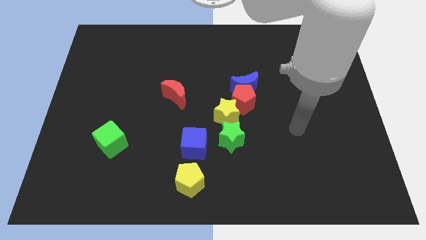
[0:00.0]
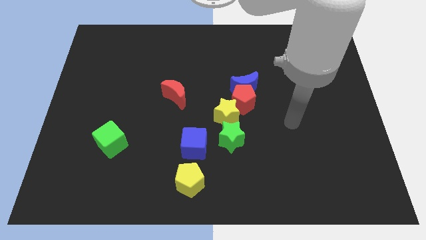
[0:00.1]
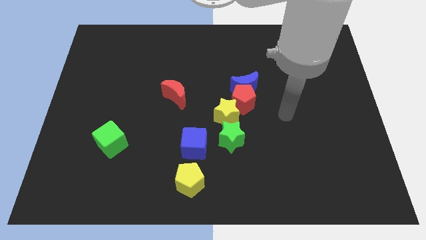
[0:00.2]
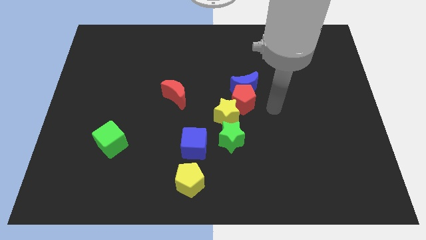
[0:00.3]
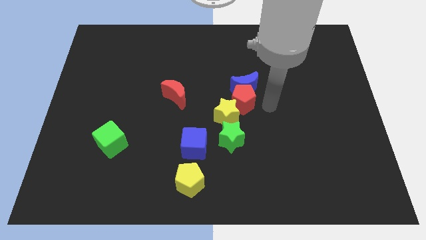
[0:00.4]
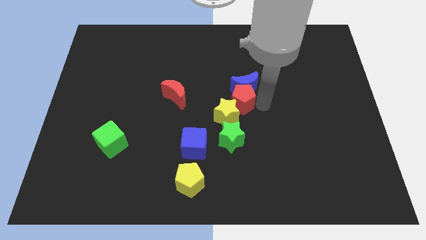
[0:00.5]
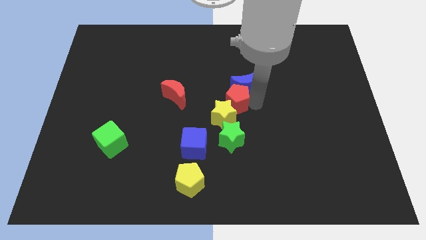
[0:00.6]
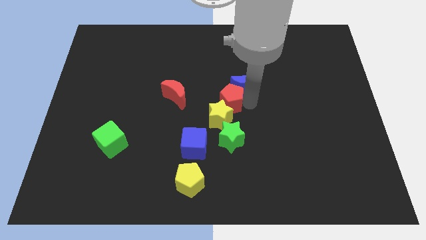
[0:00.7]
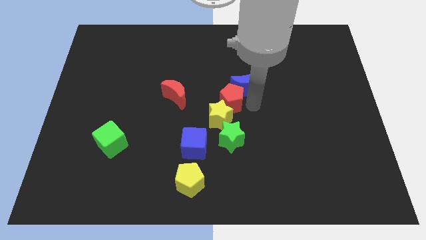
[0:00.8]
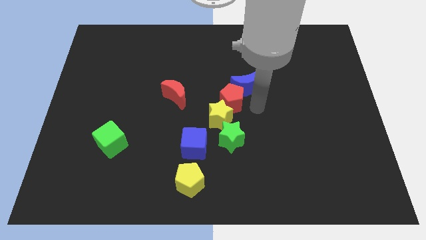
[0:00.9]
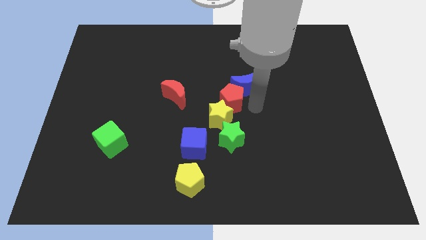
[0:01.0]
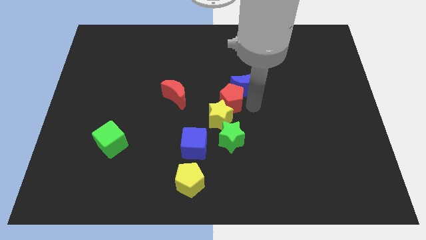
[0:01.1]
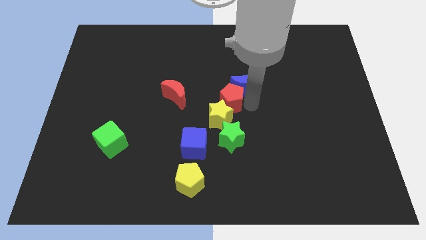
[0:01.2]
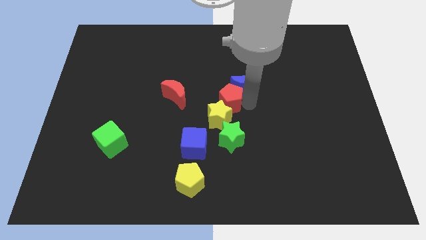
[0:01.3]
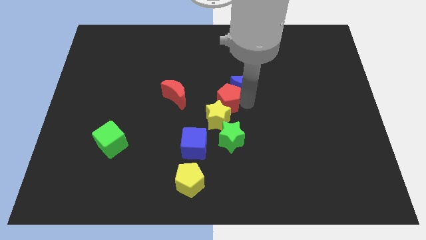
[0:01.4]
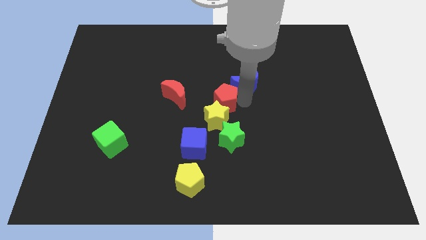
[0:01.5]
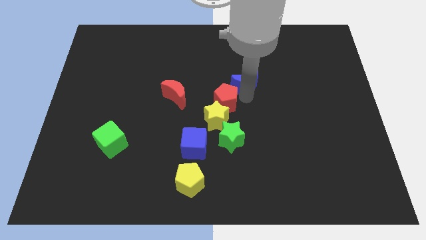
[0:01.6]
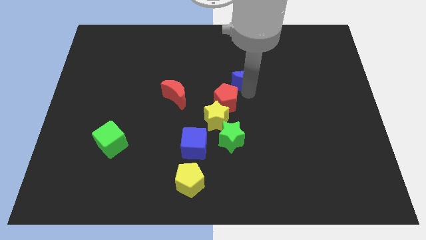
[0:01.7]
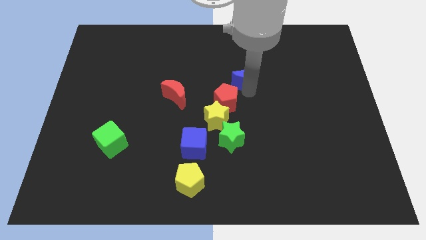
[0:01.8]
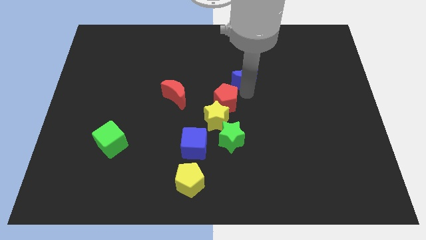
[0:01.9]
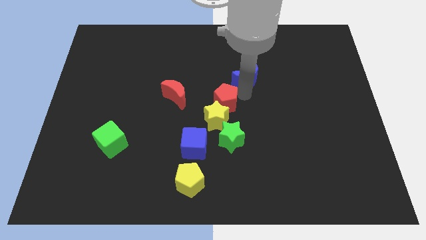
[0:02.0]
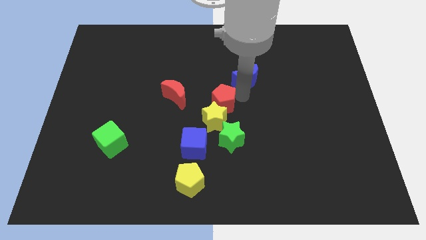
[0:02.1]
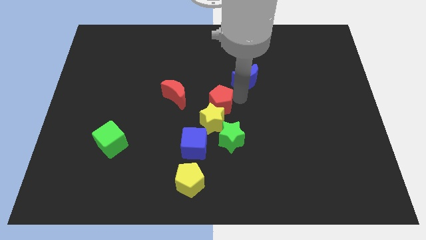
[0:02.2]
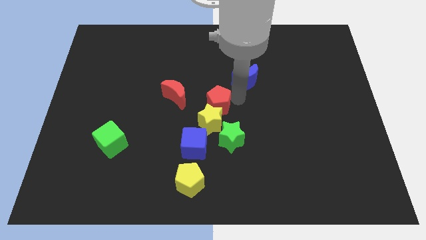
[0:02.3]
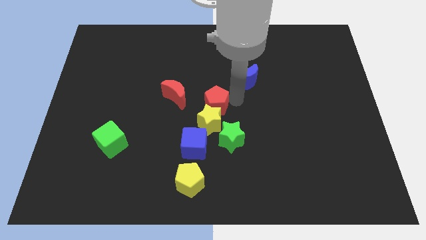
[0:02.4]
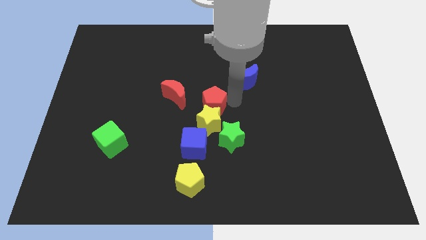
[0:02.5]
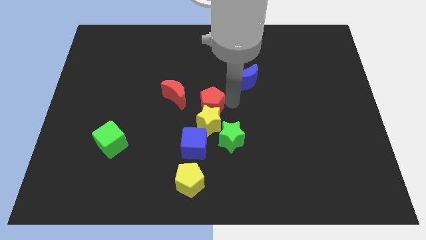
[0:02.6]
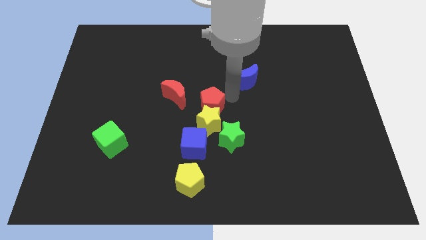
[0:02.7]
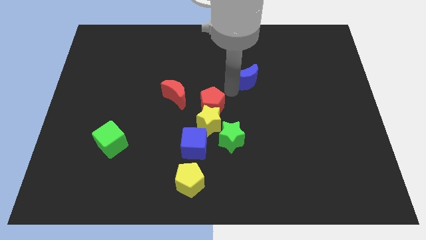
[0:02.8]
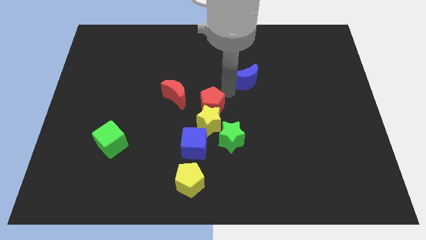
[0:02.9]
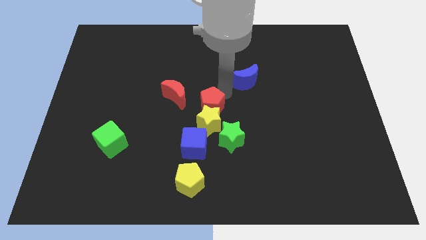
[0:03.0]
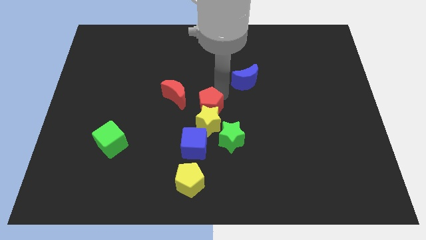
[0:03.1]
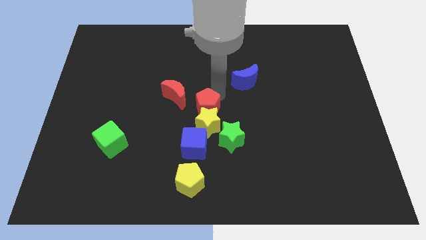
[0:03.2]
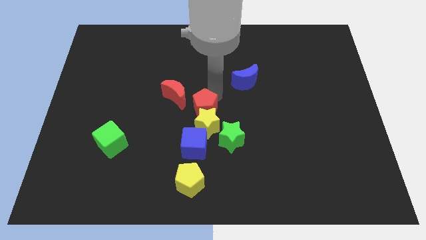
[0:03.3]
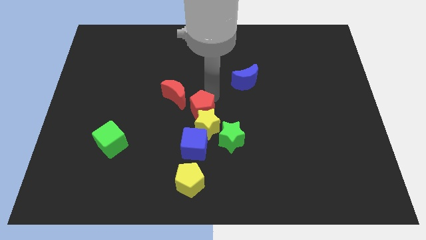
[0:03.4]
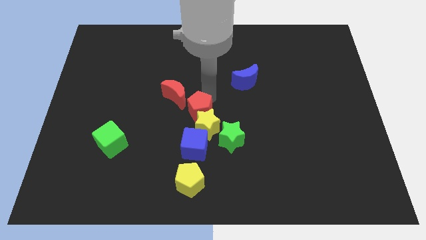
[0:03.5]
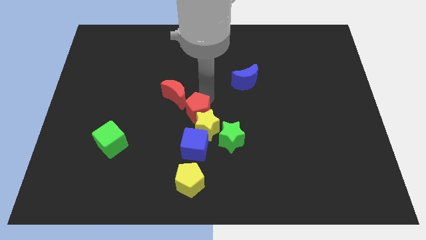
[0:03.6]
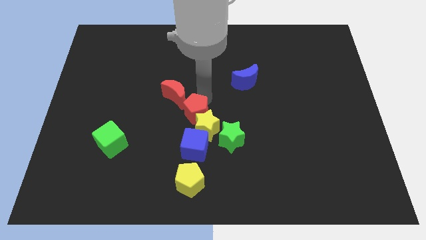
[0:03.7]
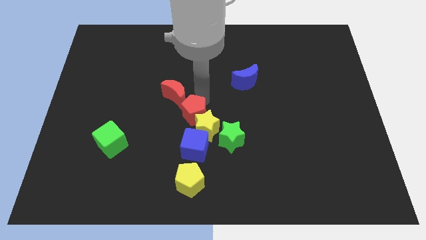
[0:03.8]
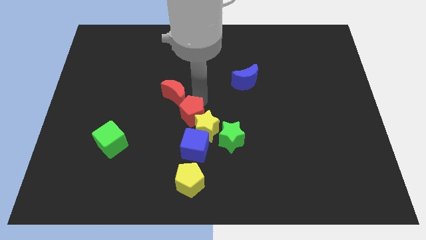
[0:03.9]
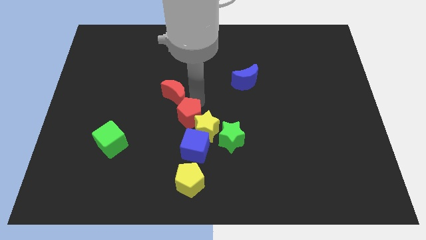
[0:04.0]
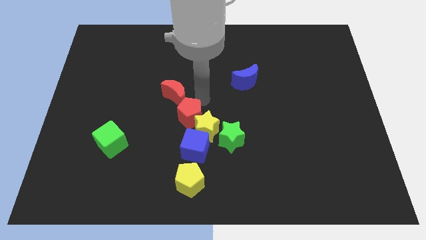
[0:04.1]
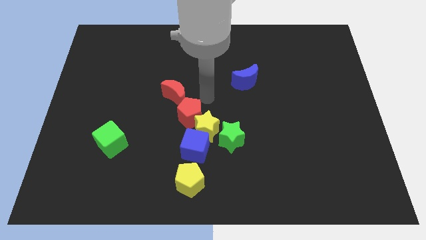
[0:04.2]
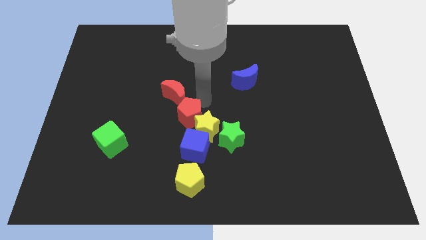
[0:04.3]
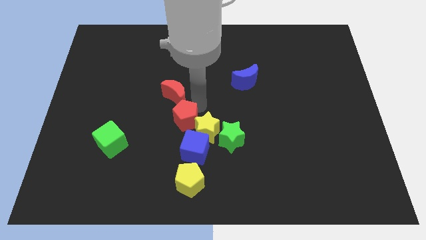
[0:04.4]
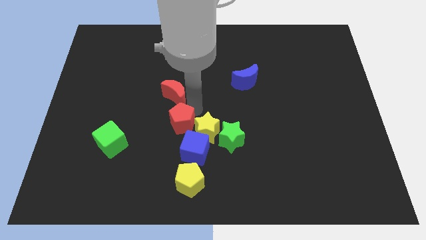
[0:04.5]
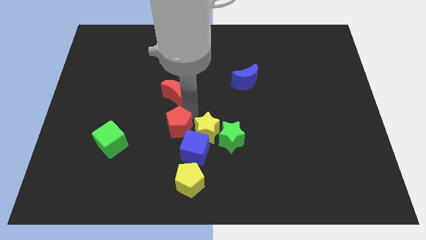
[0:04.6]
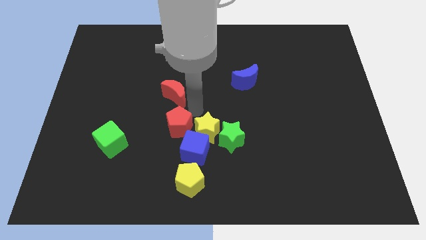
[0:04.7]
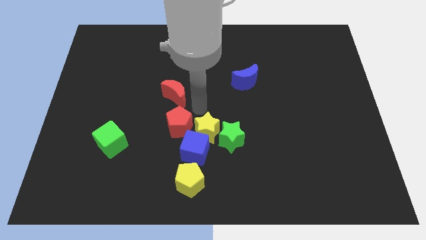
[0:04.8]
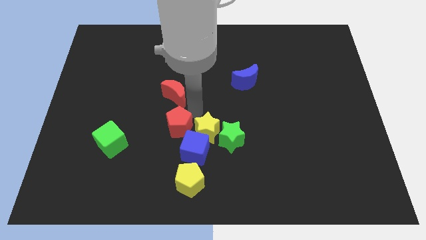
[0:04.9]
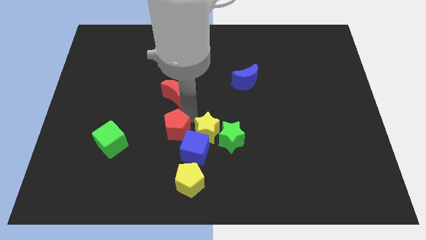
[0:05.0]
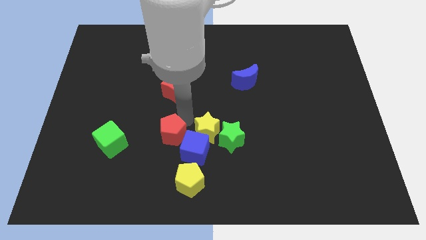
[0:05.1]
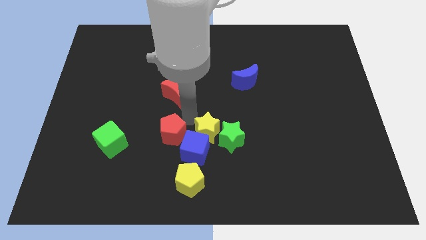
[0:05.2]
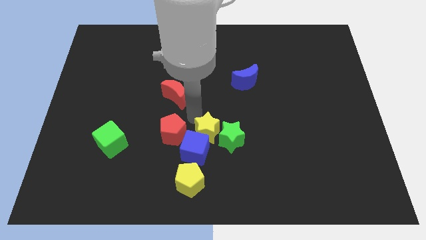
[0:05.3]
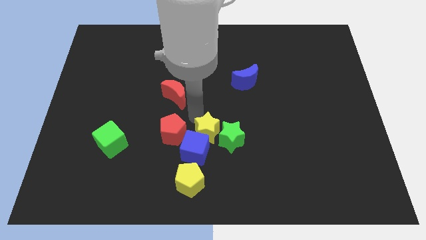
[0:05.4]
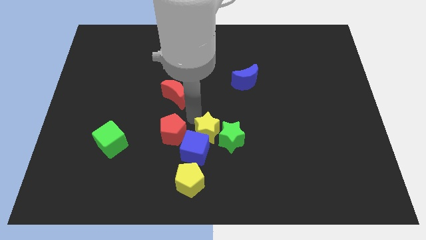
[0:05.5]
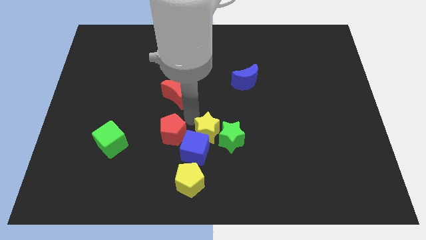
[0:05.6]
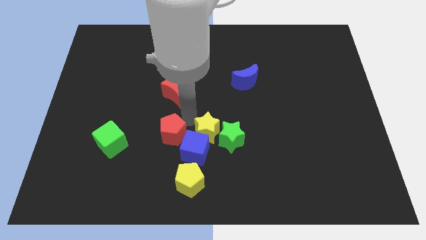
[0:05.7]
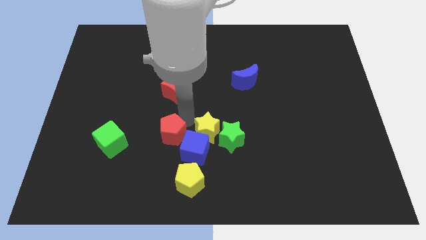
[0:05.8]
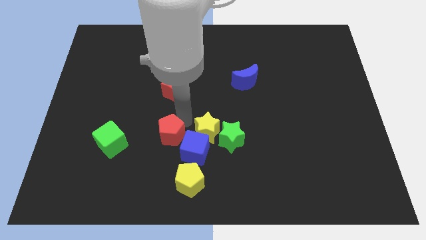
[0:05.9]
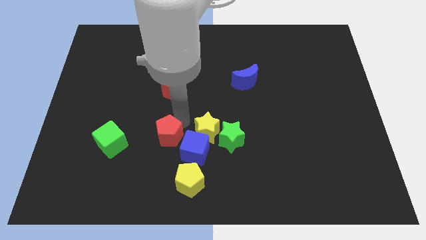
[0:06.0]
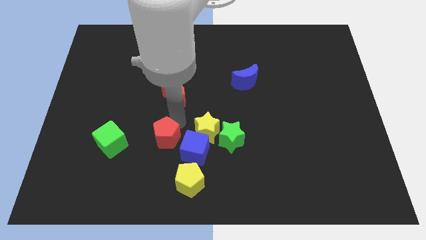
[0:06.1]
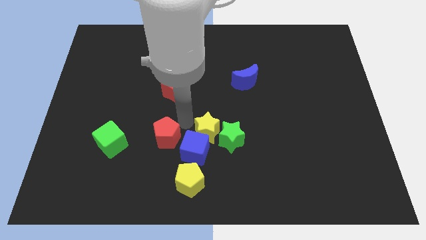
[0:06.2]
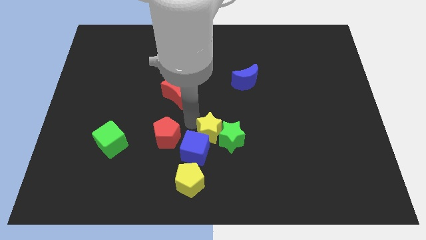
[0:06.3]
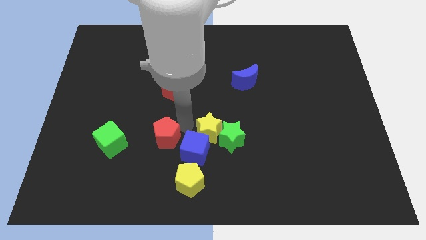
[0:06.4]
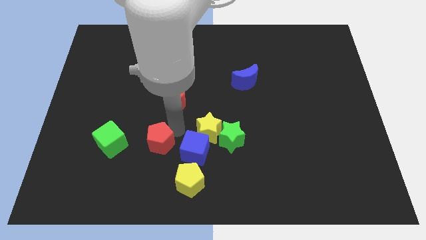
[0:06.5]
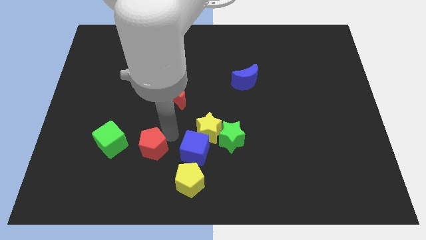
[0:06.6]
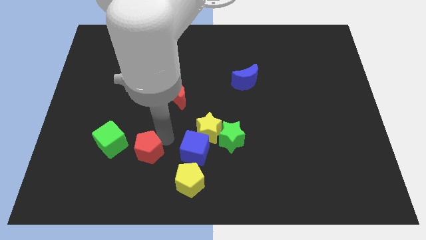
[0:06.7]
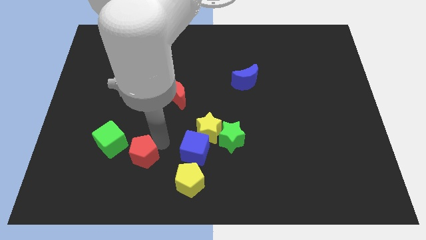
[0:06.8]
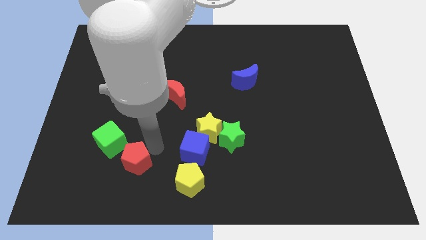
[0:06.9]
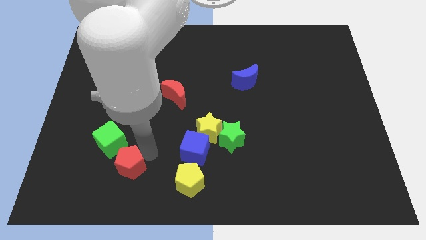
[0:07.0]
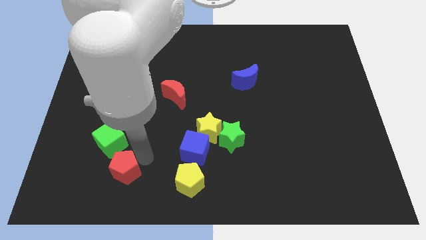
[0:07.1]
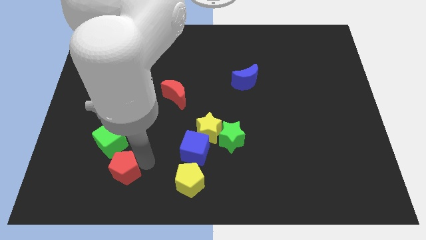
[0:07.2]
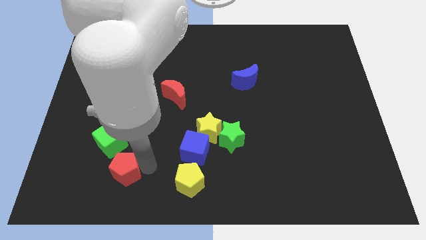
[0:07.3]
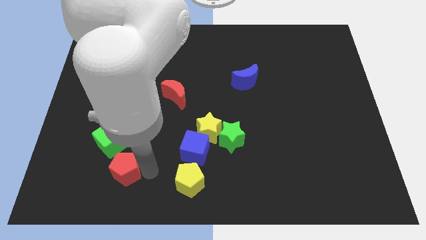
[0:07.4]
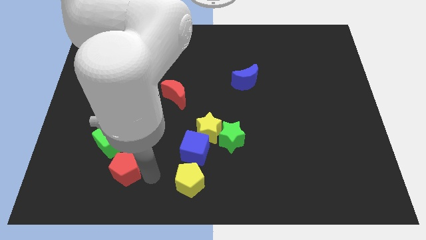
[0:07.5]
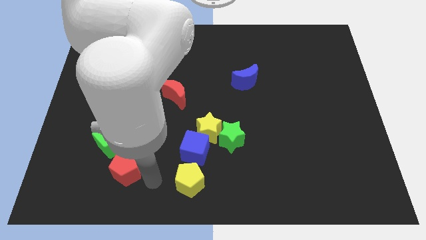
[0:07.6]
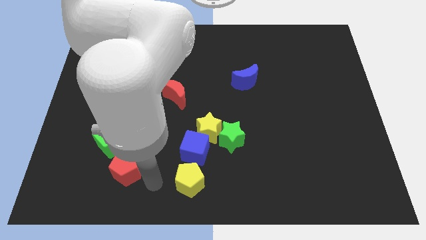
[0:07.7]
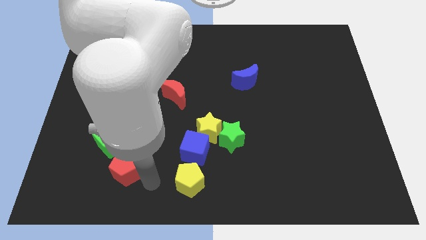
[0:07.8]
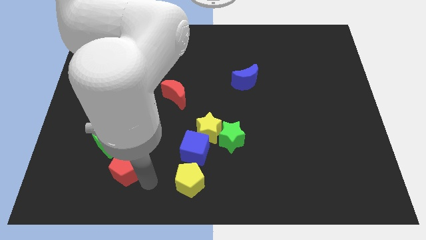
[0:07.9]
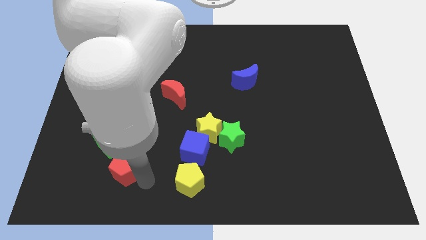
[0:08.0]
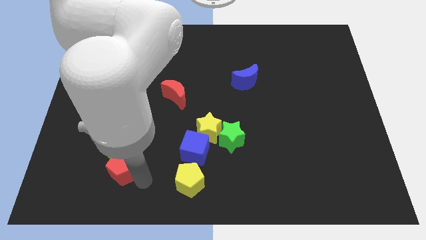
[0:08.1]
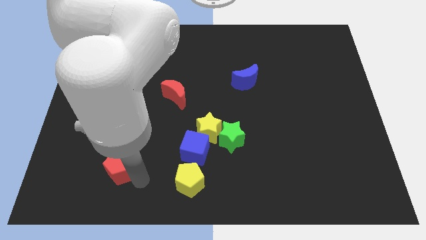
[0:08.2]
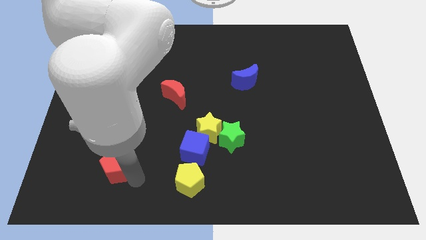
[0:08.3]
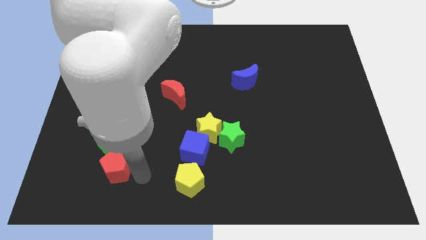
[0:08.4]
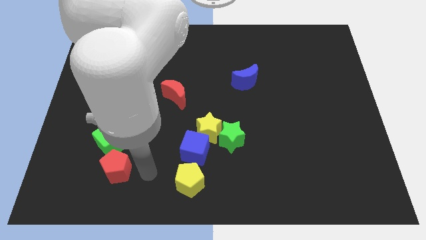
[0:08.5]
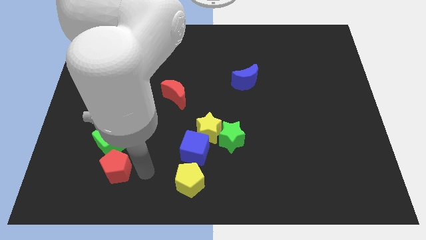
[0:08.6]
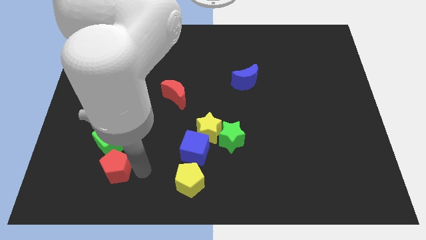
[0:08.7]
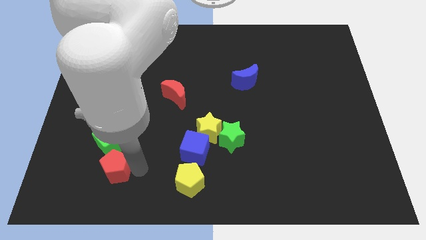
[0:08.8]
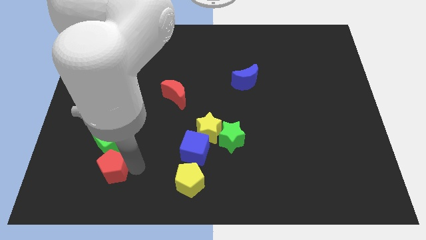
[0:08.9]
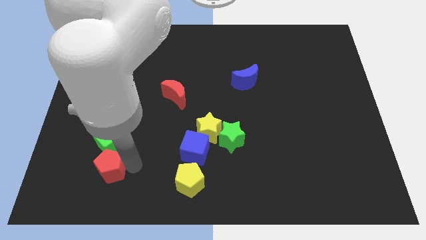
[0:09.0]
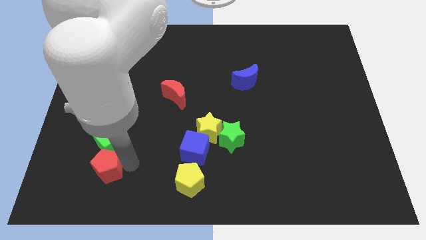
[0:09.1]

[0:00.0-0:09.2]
slide the red pentagon diagonally down and to the left of the green cube
